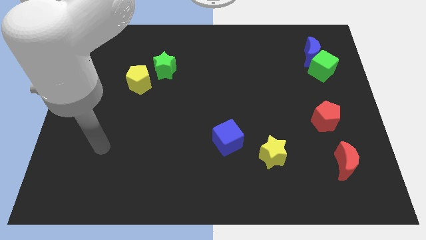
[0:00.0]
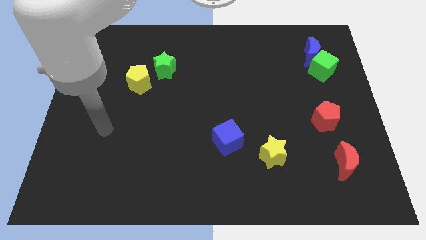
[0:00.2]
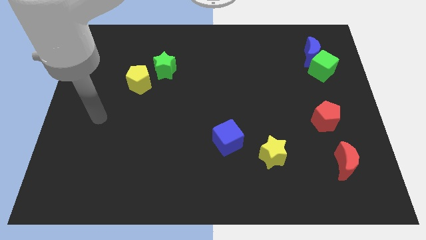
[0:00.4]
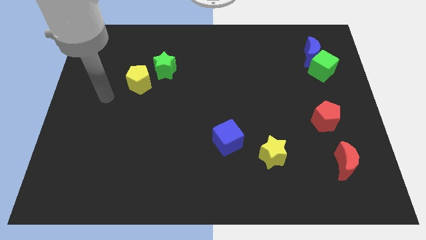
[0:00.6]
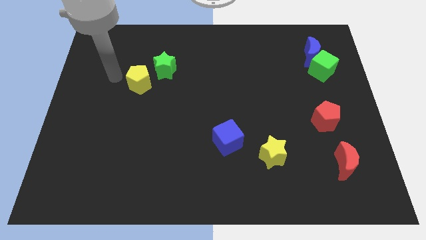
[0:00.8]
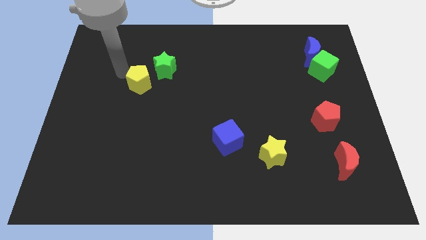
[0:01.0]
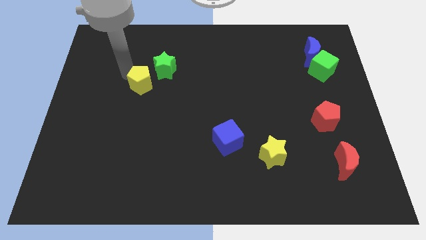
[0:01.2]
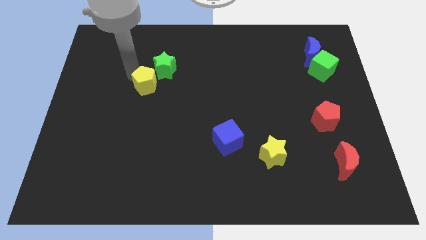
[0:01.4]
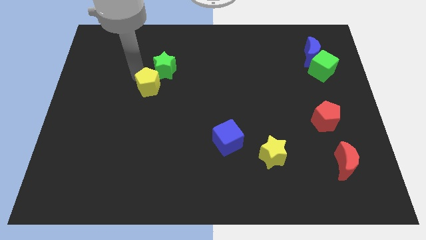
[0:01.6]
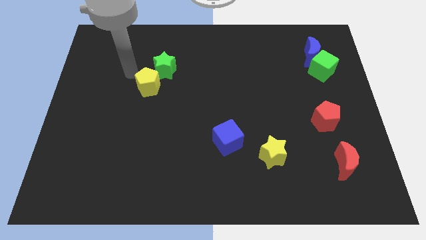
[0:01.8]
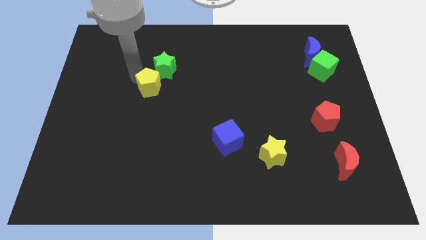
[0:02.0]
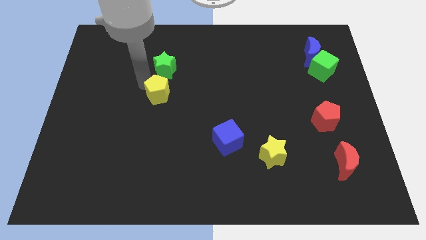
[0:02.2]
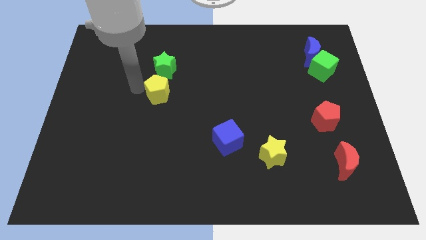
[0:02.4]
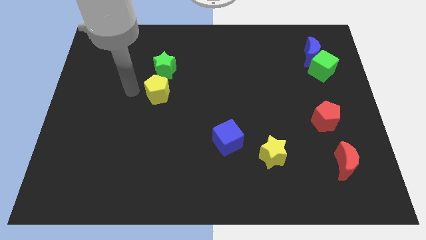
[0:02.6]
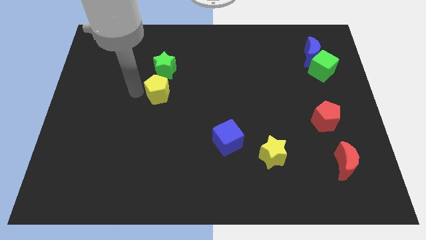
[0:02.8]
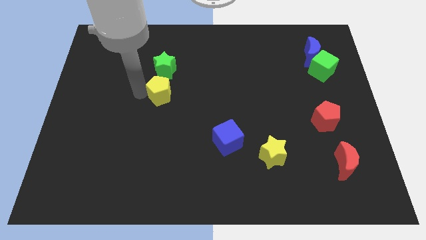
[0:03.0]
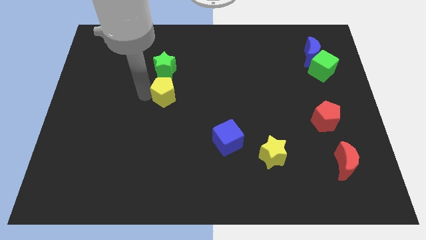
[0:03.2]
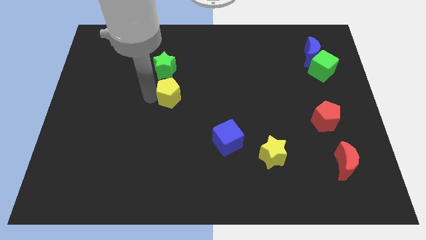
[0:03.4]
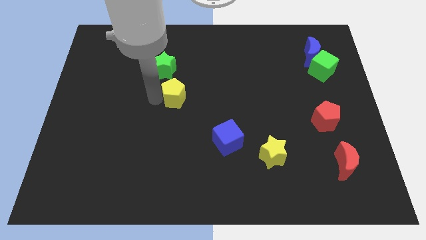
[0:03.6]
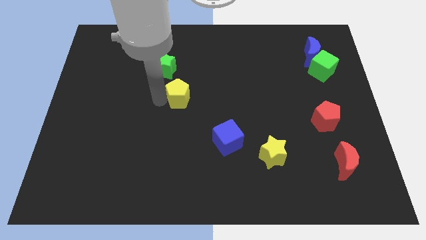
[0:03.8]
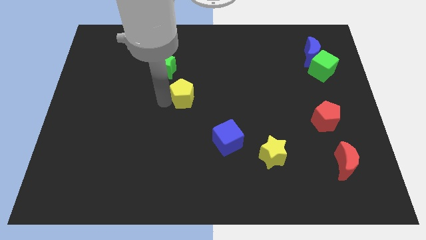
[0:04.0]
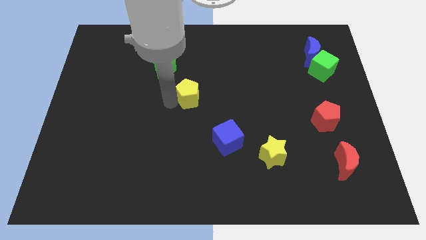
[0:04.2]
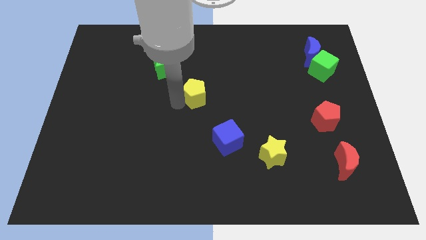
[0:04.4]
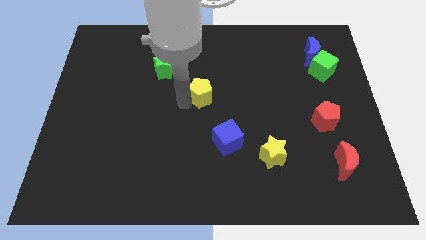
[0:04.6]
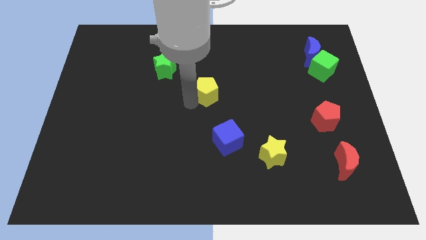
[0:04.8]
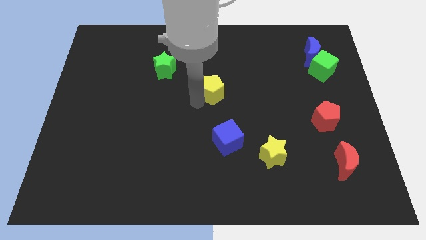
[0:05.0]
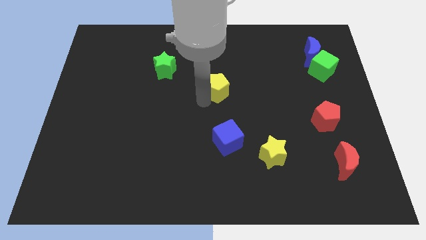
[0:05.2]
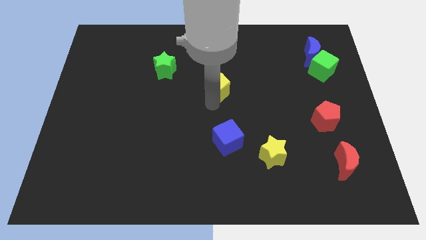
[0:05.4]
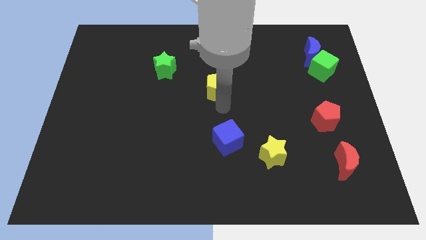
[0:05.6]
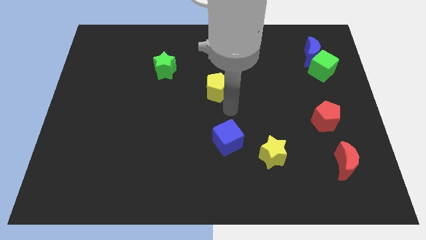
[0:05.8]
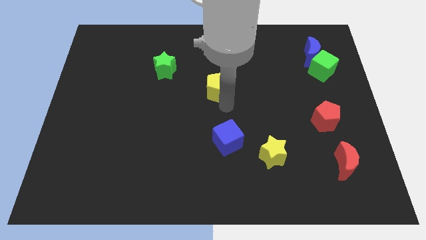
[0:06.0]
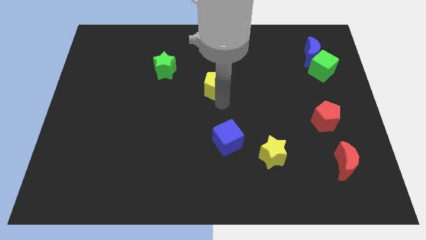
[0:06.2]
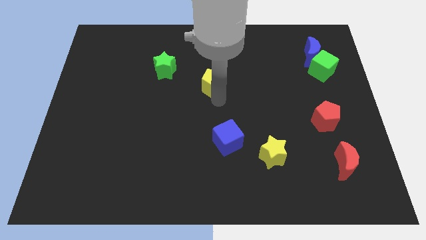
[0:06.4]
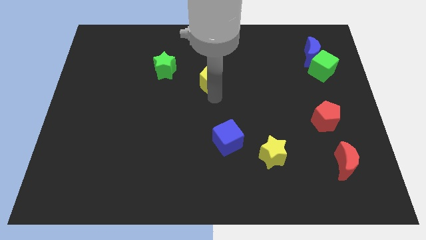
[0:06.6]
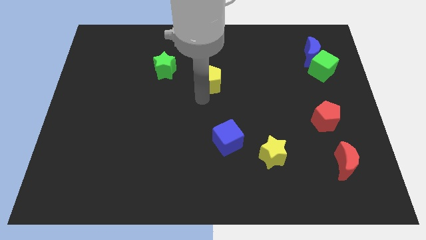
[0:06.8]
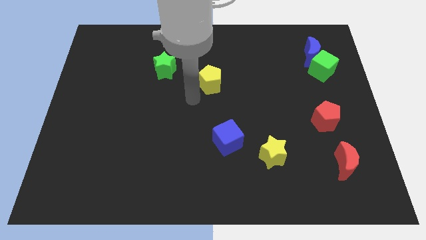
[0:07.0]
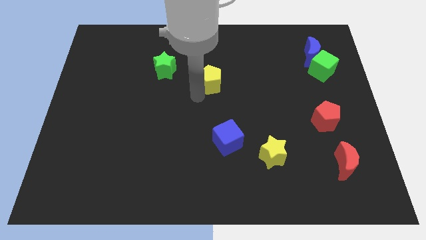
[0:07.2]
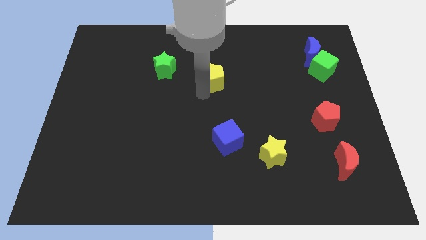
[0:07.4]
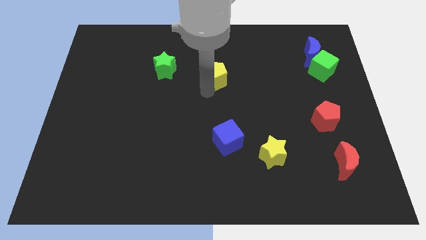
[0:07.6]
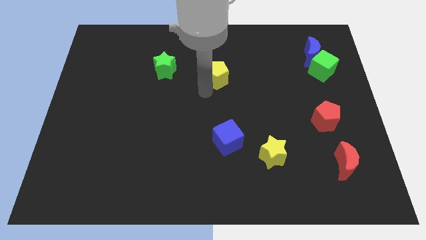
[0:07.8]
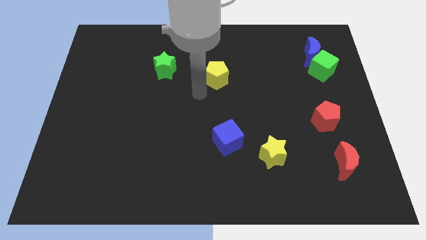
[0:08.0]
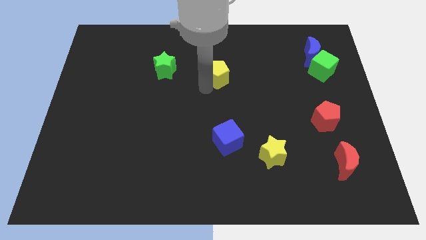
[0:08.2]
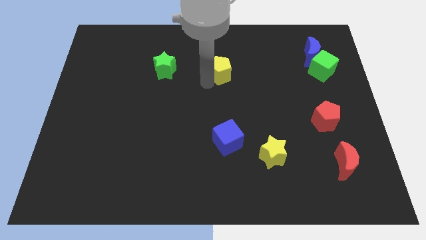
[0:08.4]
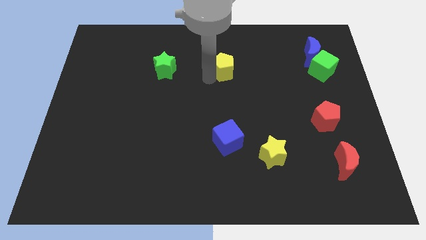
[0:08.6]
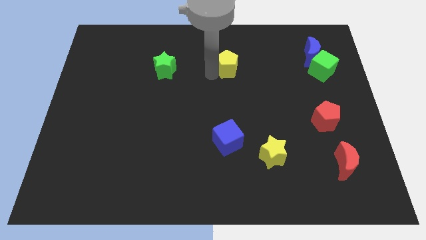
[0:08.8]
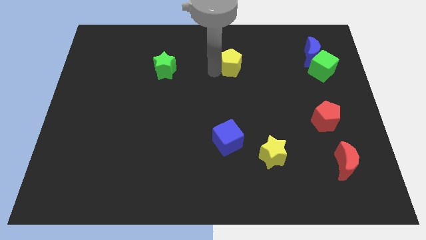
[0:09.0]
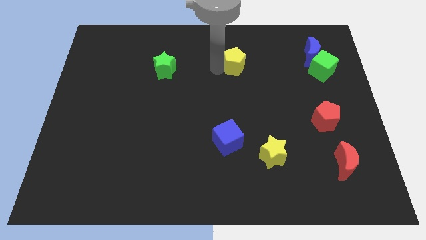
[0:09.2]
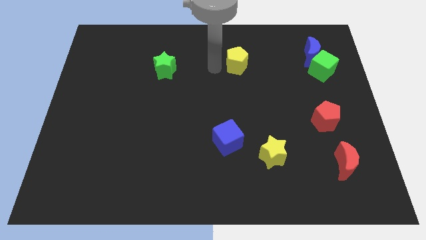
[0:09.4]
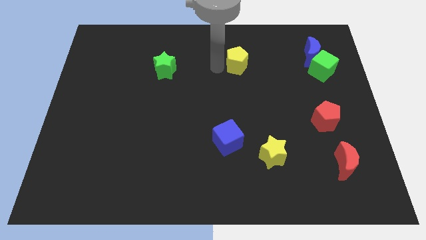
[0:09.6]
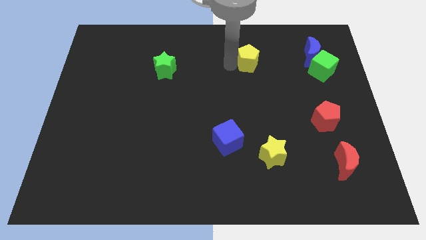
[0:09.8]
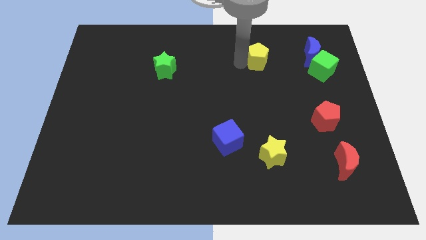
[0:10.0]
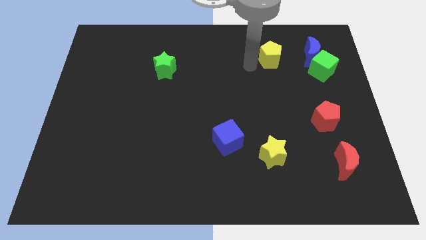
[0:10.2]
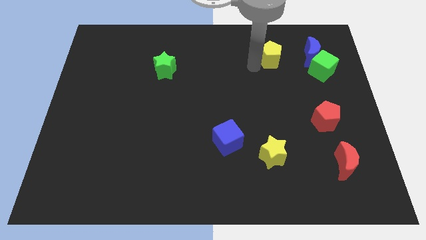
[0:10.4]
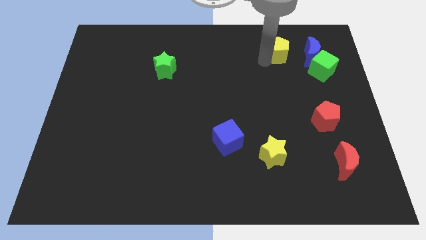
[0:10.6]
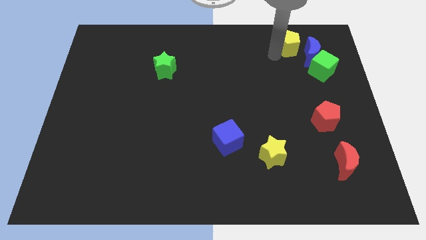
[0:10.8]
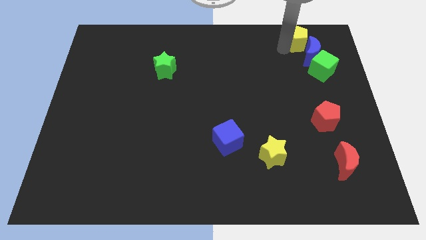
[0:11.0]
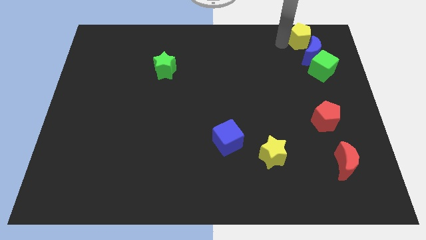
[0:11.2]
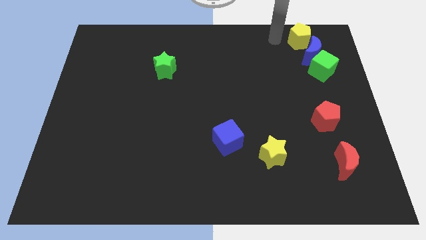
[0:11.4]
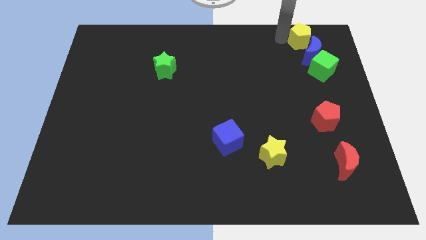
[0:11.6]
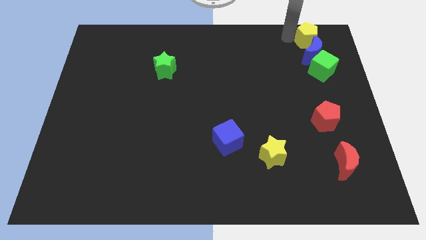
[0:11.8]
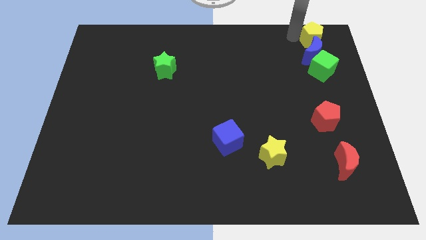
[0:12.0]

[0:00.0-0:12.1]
move the yellow pentagon to the top right
